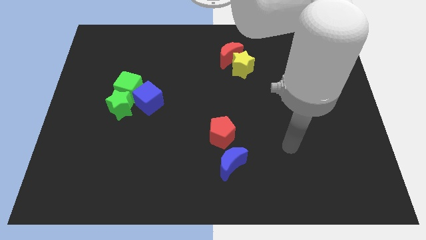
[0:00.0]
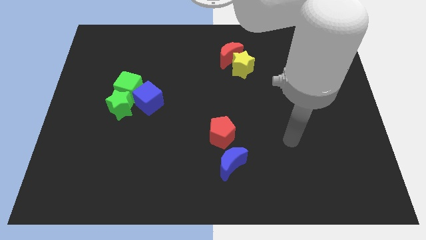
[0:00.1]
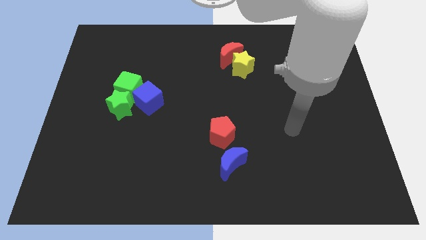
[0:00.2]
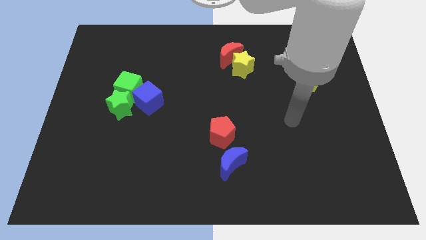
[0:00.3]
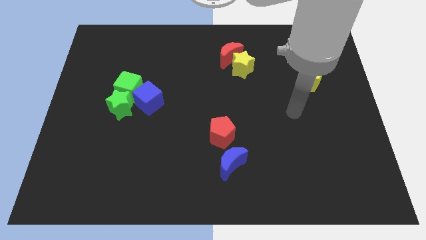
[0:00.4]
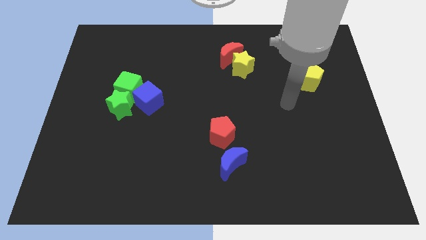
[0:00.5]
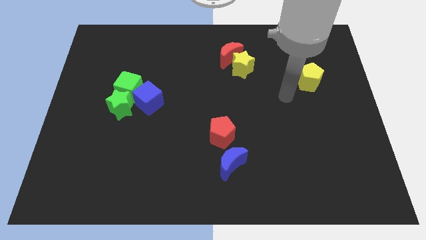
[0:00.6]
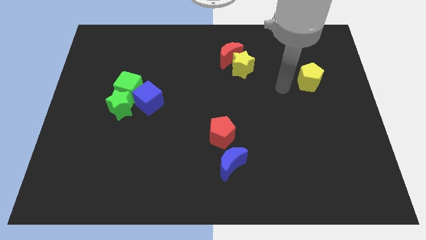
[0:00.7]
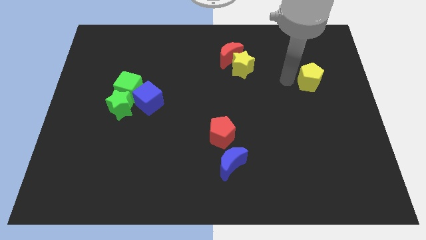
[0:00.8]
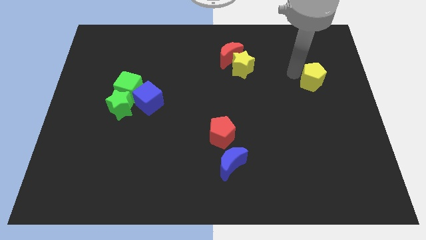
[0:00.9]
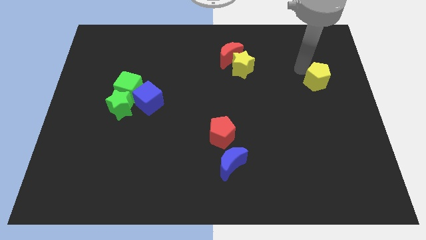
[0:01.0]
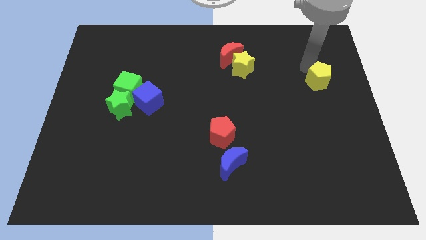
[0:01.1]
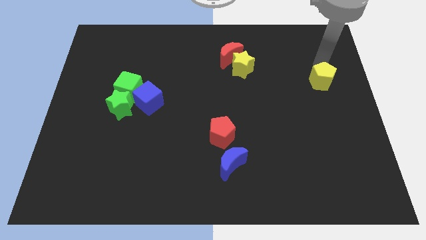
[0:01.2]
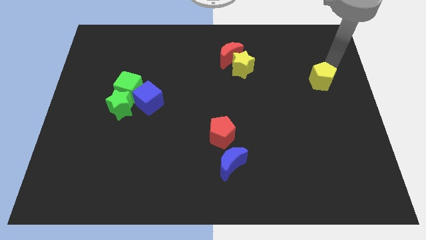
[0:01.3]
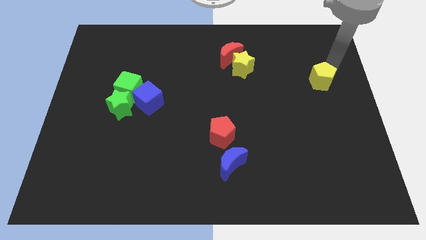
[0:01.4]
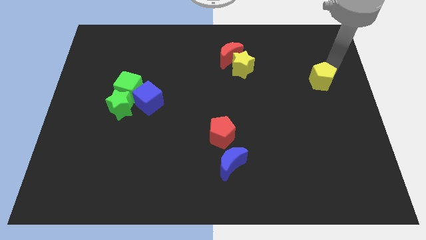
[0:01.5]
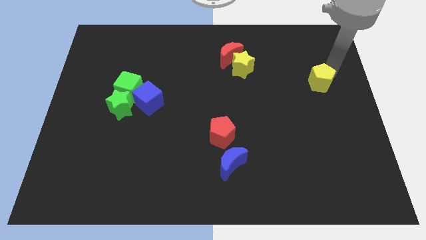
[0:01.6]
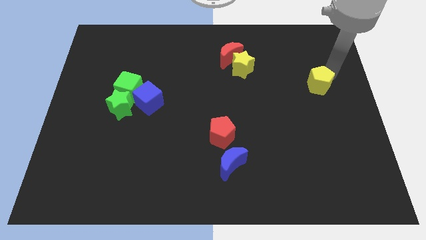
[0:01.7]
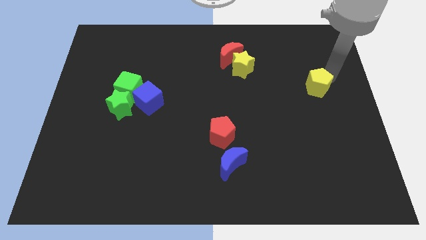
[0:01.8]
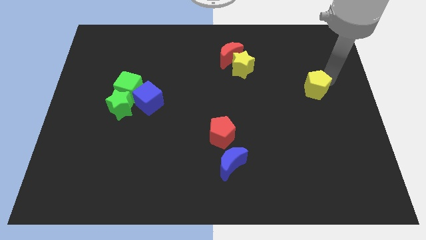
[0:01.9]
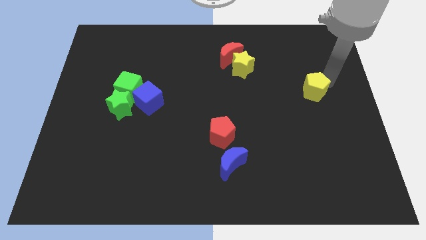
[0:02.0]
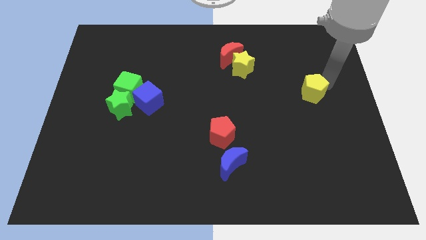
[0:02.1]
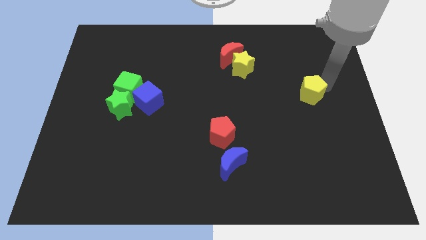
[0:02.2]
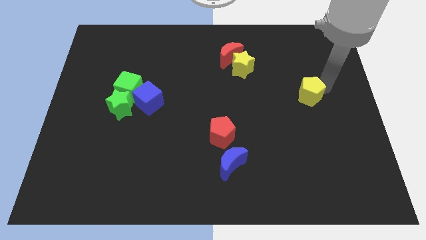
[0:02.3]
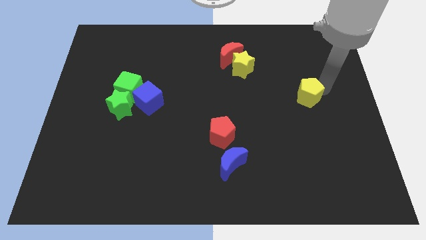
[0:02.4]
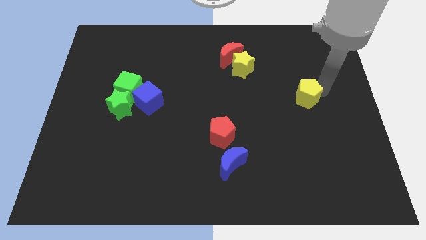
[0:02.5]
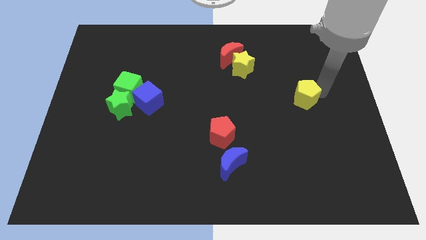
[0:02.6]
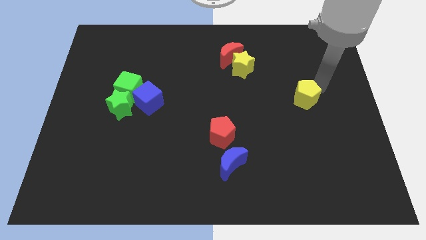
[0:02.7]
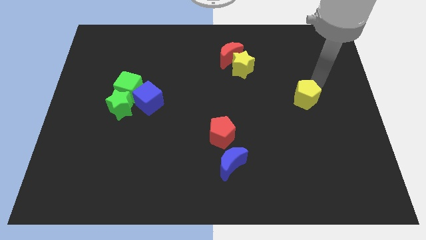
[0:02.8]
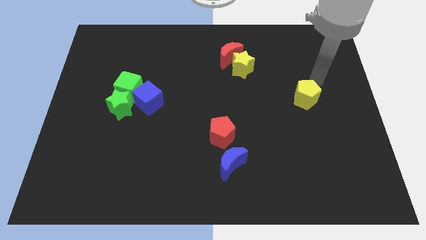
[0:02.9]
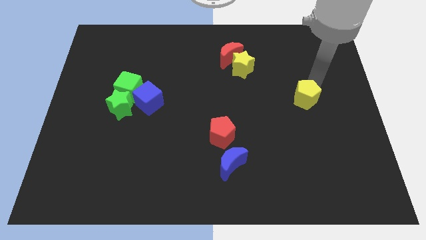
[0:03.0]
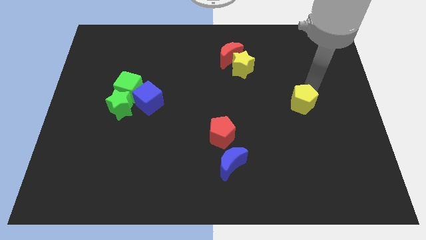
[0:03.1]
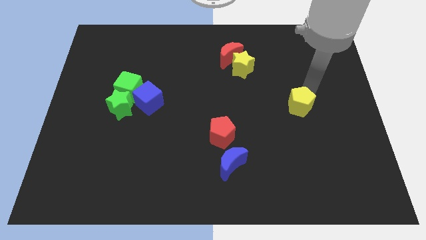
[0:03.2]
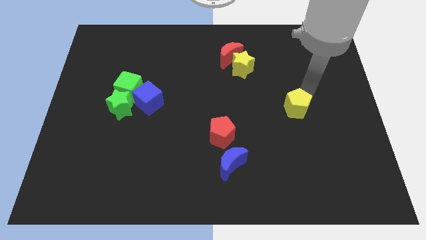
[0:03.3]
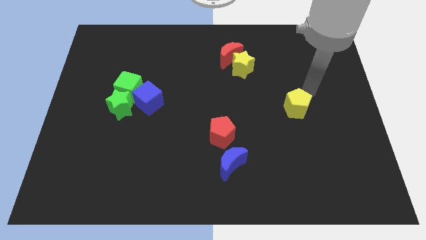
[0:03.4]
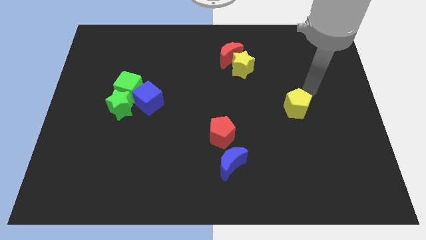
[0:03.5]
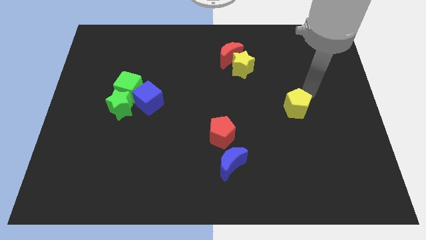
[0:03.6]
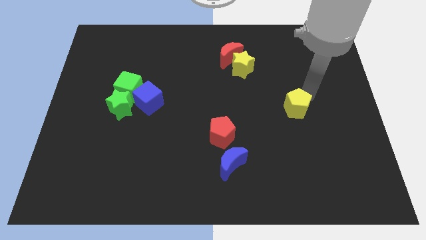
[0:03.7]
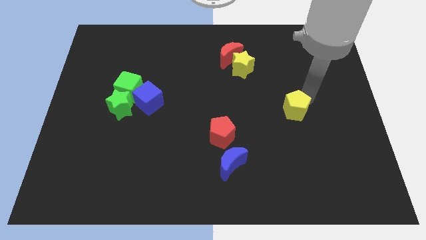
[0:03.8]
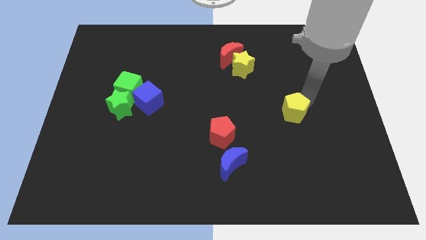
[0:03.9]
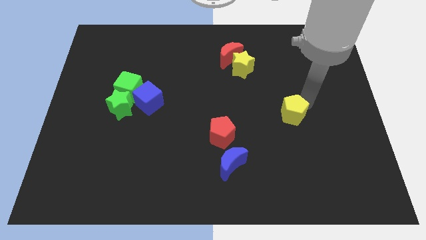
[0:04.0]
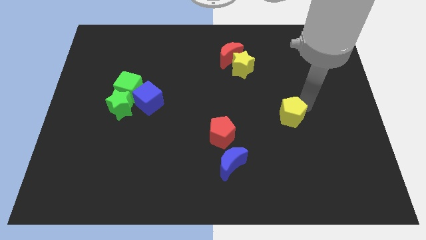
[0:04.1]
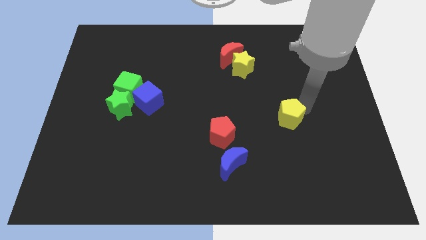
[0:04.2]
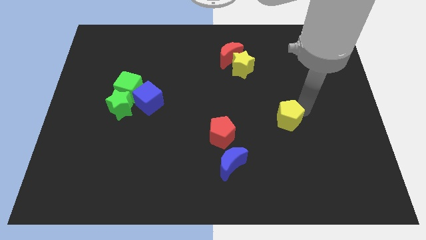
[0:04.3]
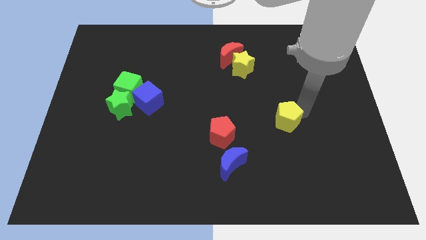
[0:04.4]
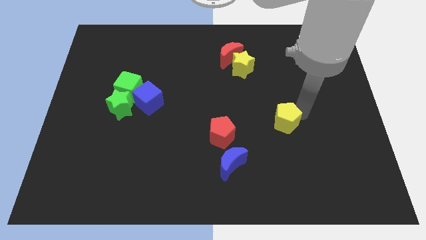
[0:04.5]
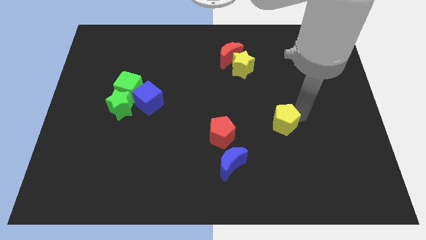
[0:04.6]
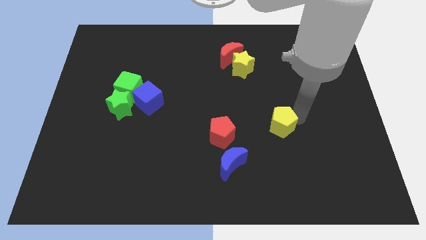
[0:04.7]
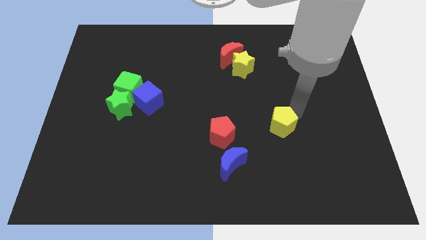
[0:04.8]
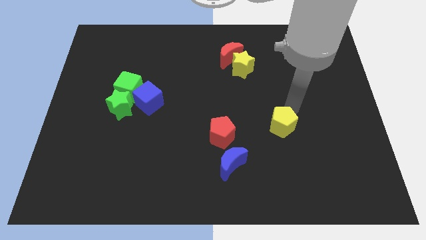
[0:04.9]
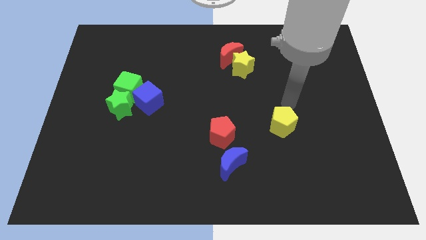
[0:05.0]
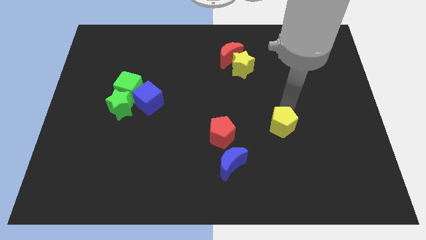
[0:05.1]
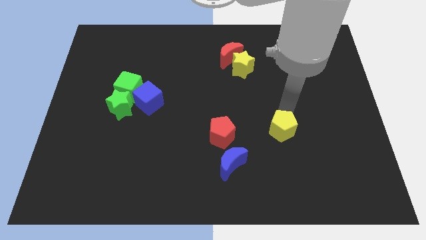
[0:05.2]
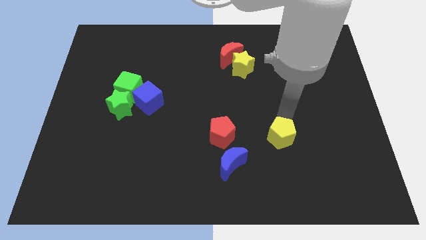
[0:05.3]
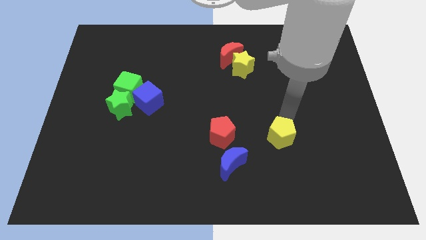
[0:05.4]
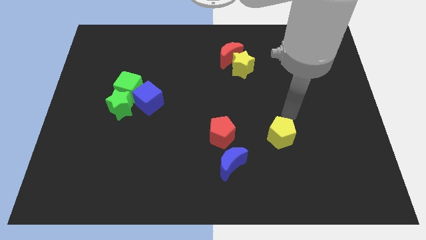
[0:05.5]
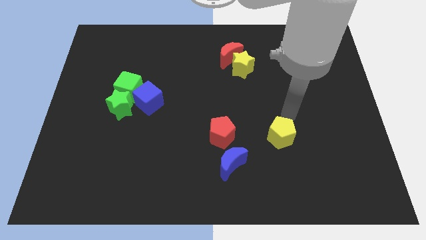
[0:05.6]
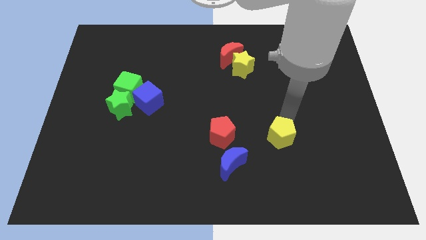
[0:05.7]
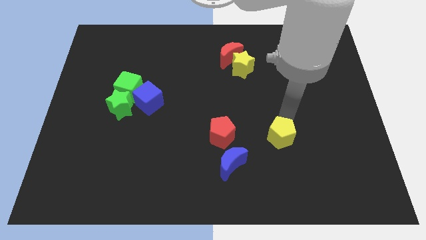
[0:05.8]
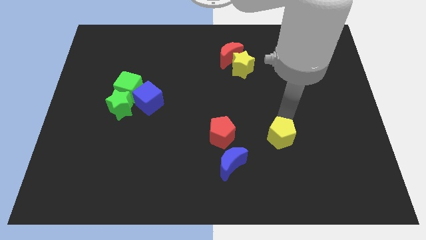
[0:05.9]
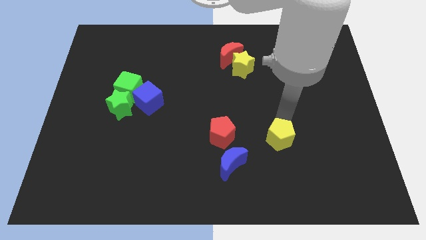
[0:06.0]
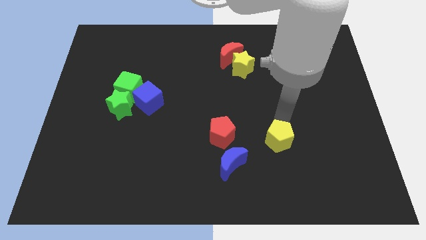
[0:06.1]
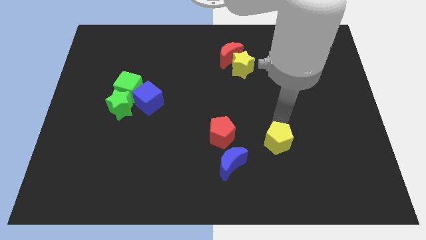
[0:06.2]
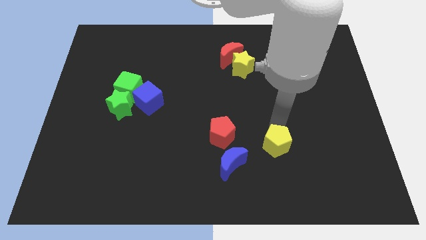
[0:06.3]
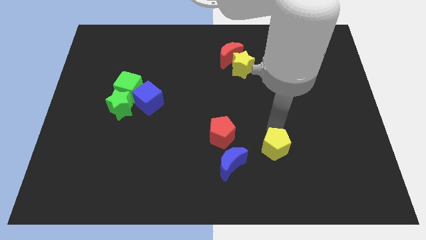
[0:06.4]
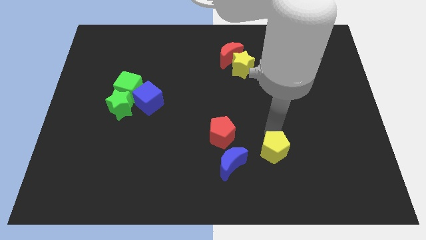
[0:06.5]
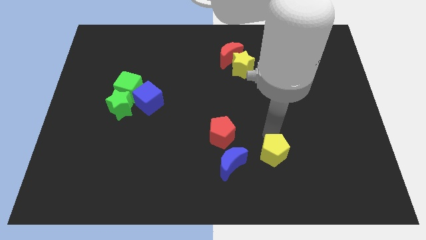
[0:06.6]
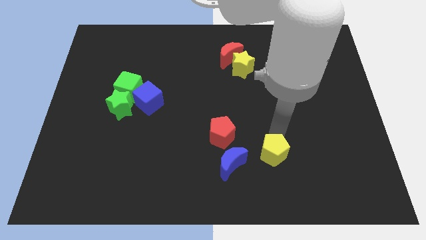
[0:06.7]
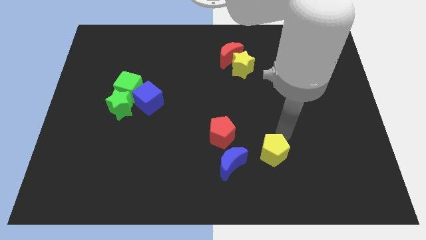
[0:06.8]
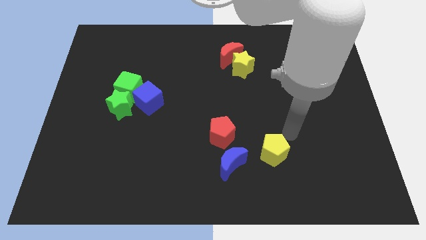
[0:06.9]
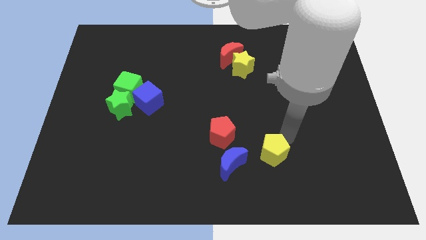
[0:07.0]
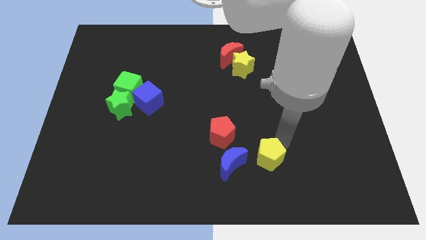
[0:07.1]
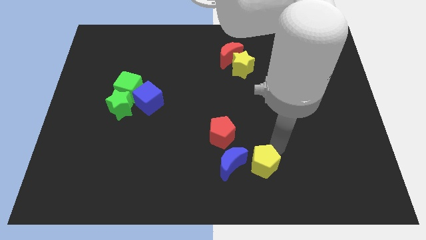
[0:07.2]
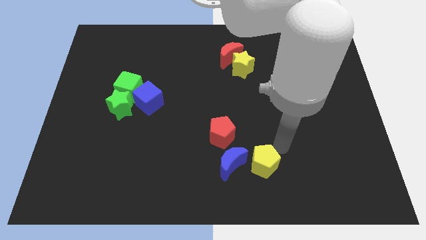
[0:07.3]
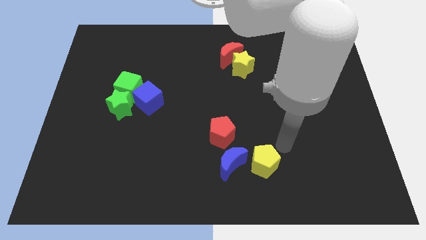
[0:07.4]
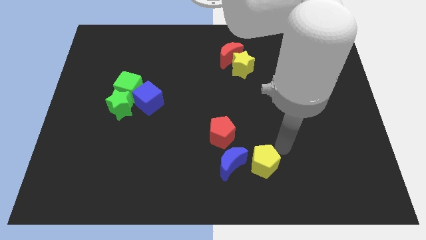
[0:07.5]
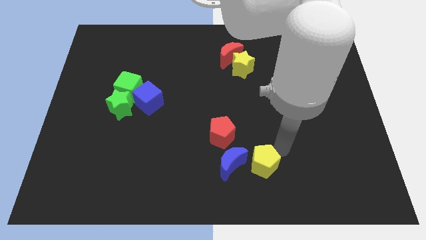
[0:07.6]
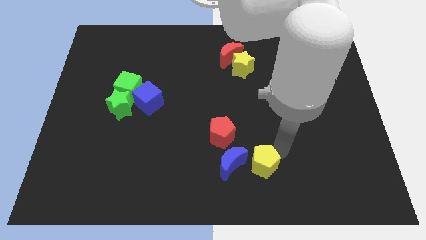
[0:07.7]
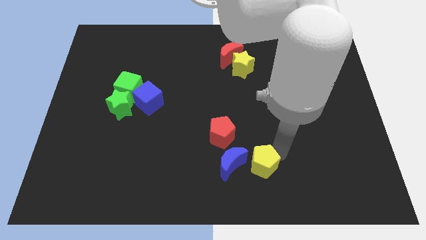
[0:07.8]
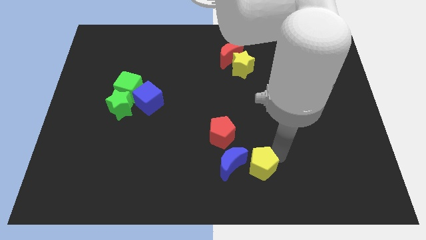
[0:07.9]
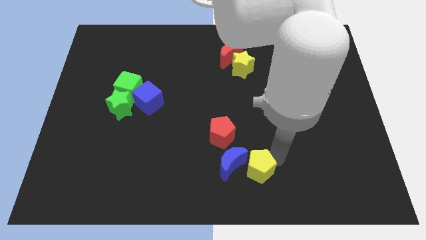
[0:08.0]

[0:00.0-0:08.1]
move the yellow pentagon to the bottom side
